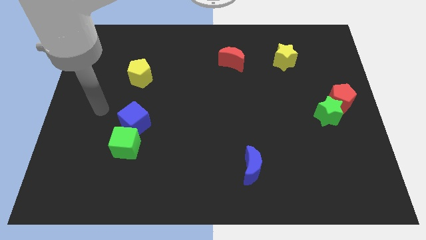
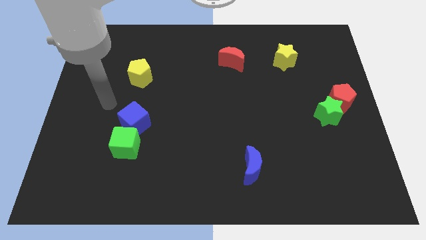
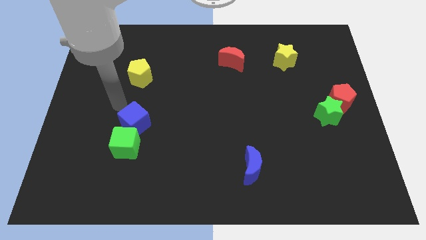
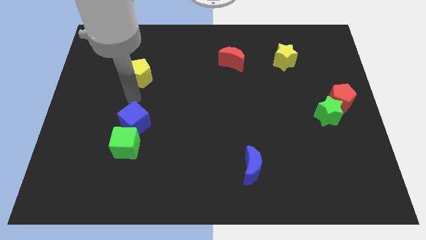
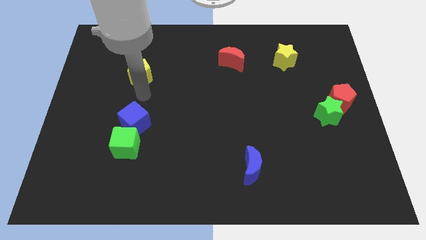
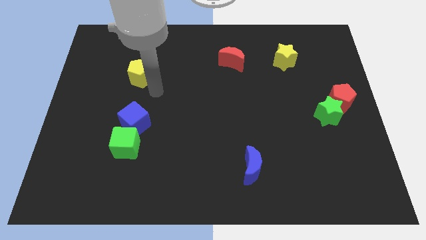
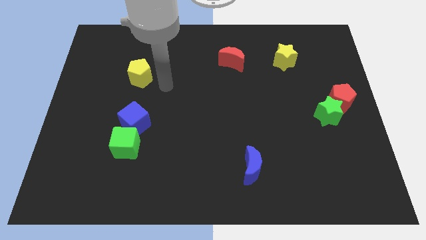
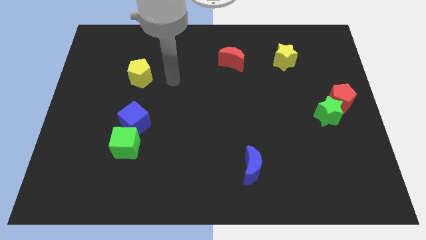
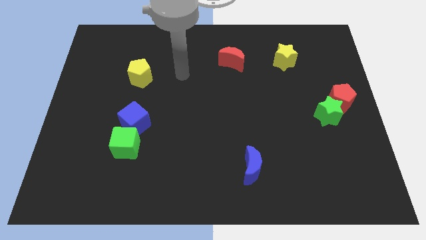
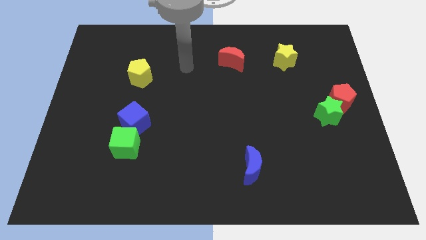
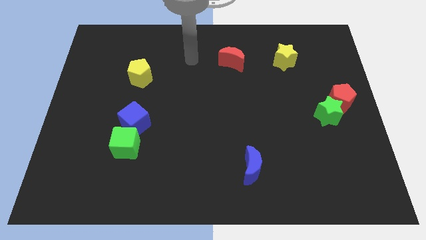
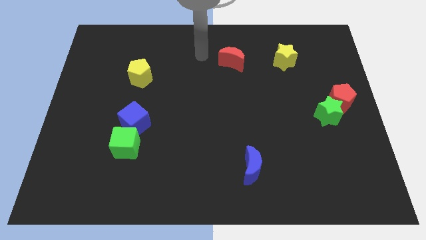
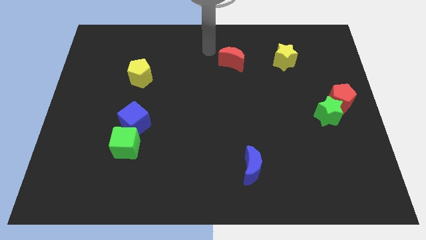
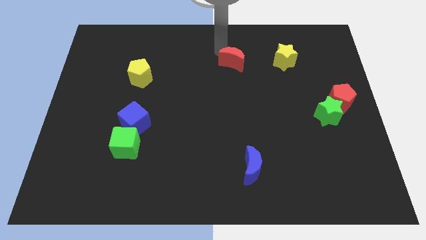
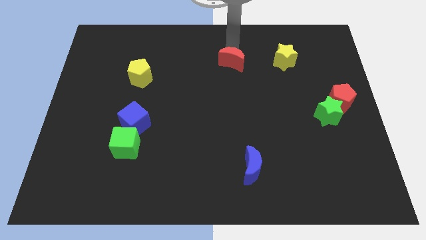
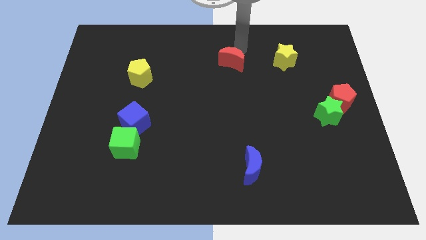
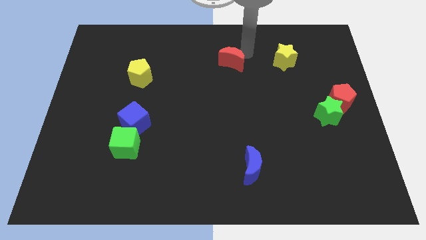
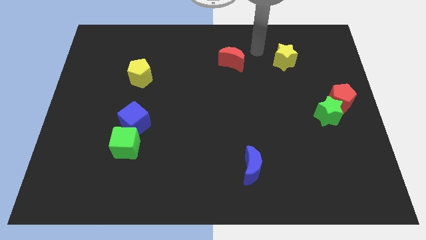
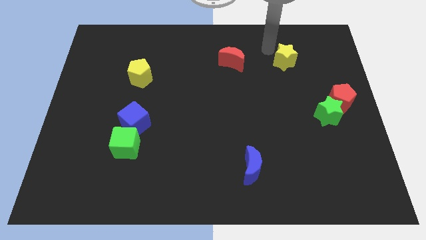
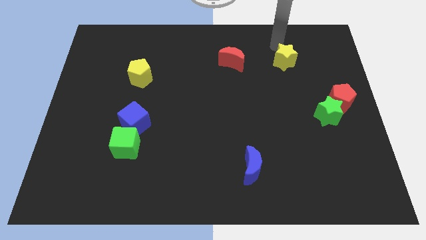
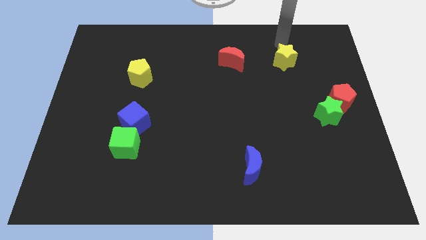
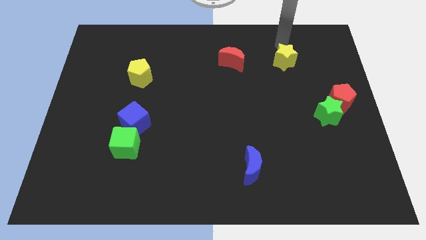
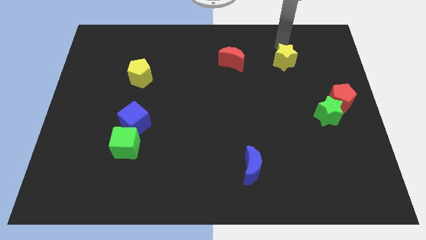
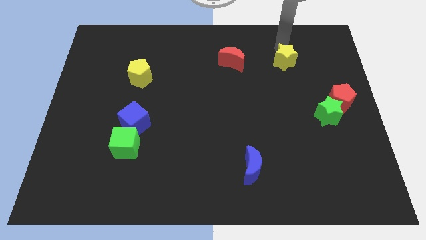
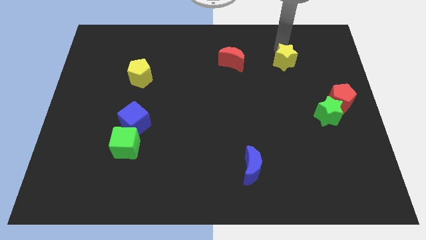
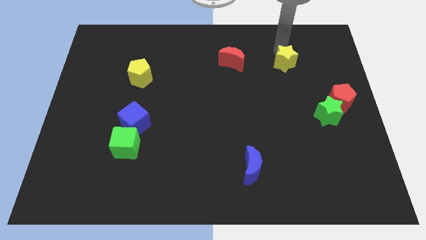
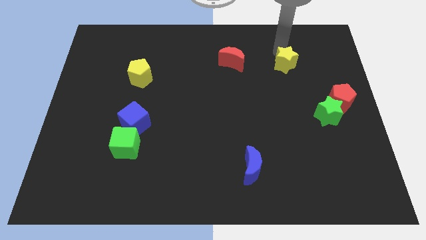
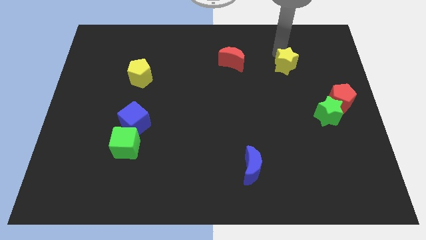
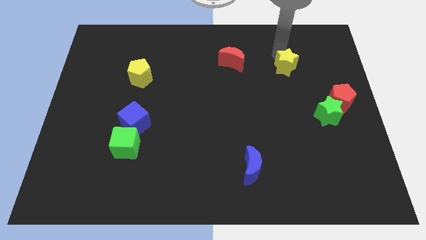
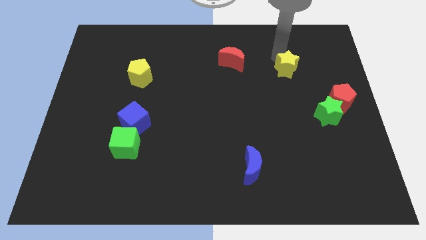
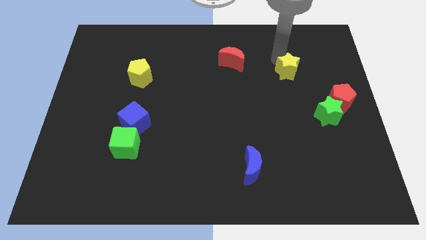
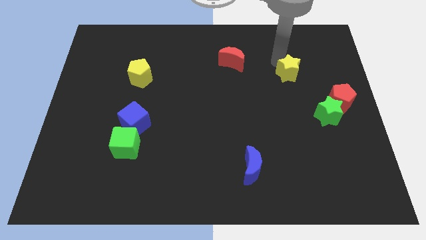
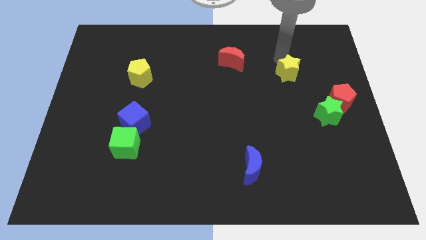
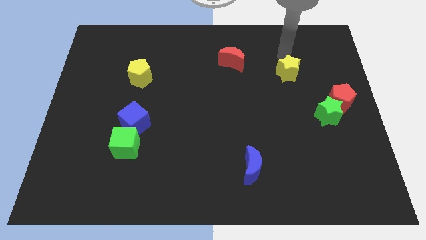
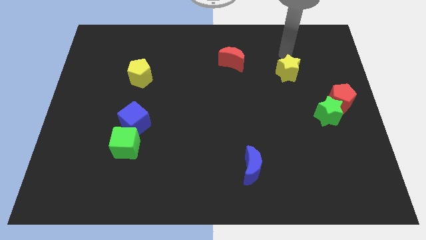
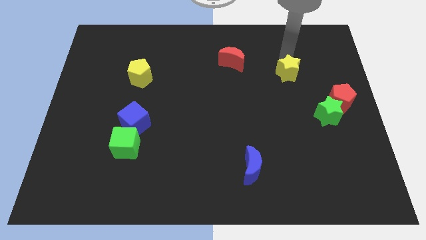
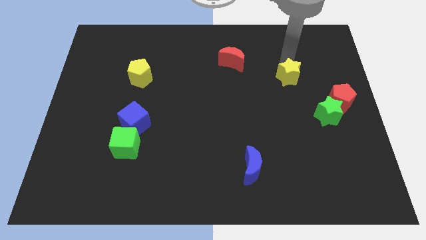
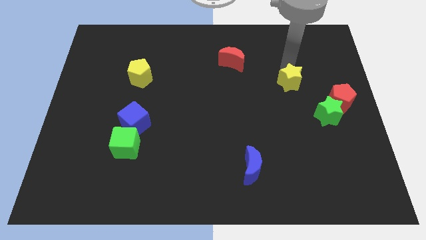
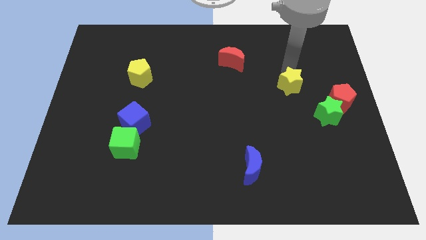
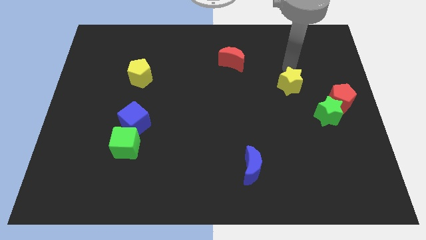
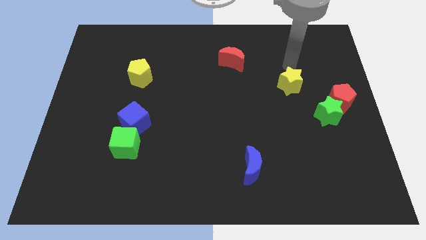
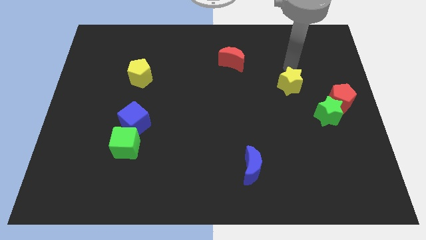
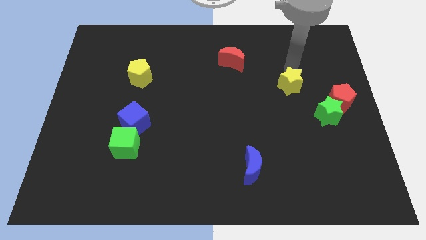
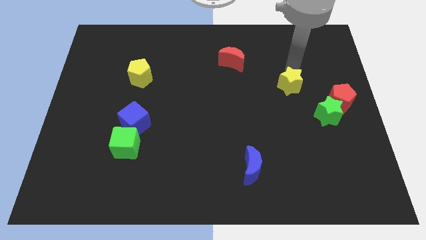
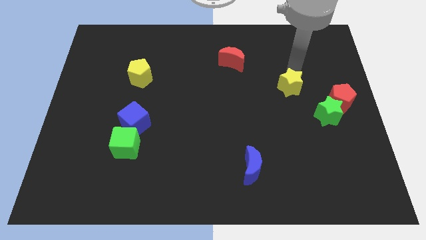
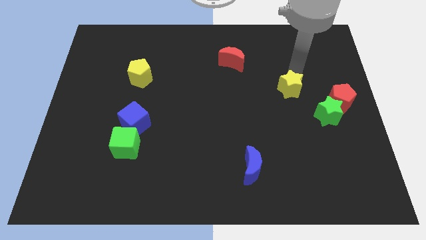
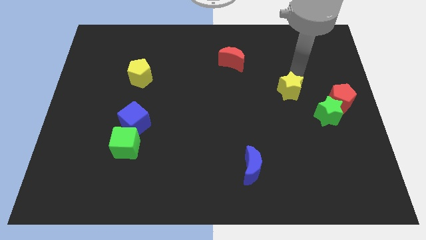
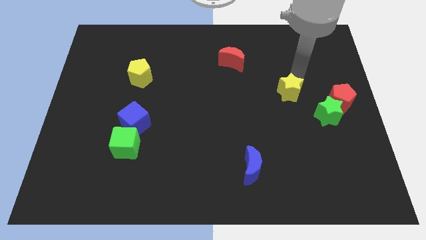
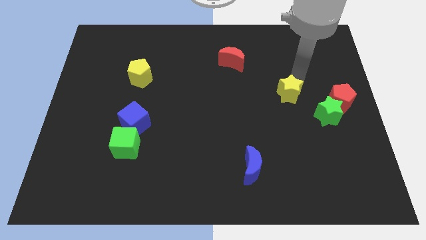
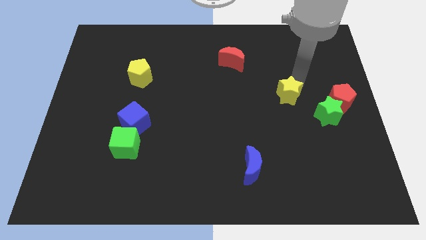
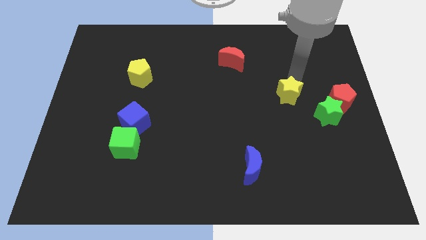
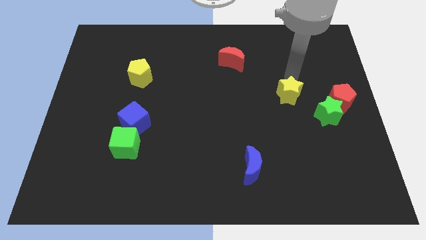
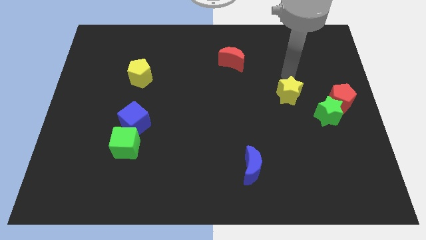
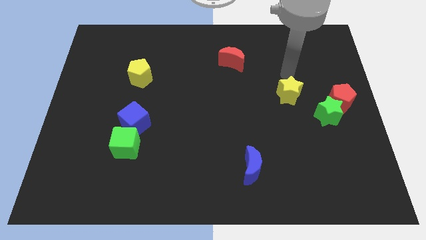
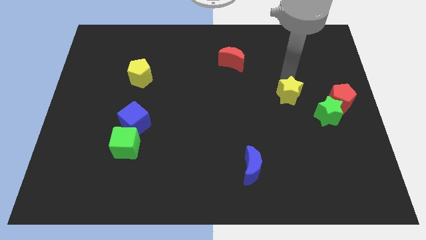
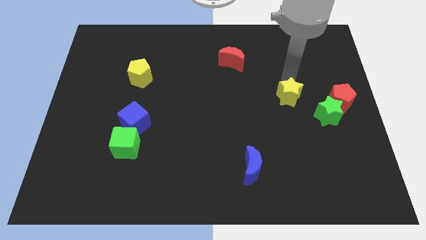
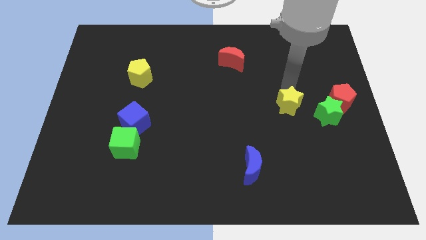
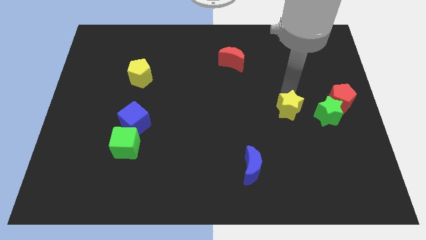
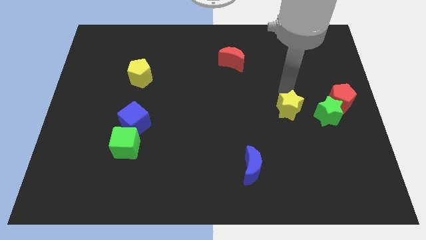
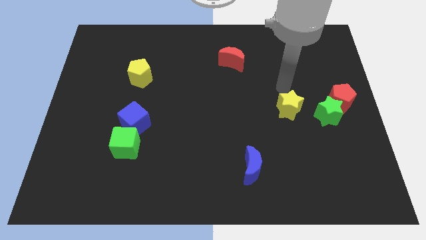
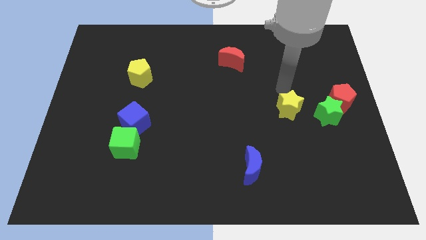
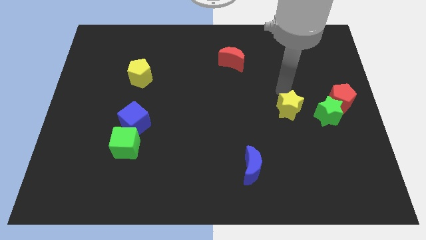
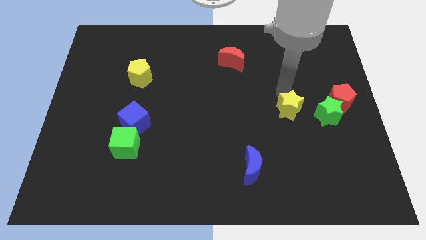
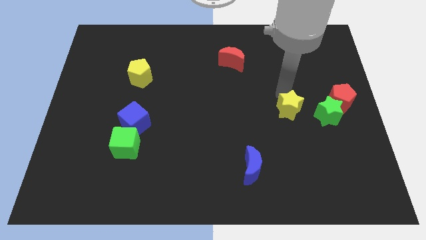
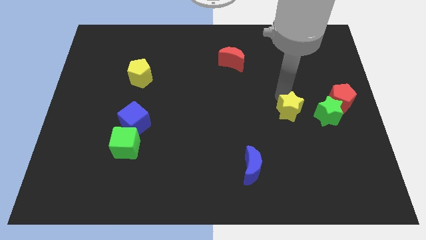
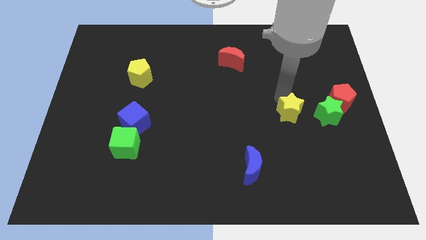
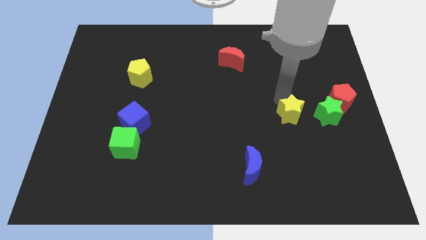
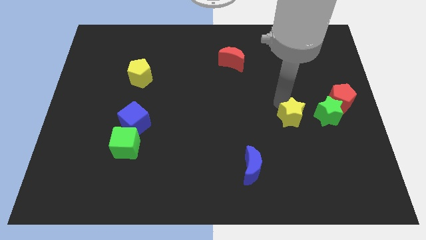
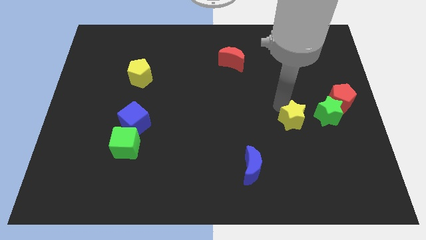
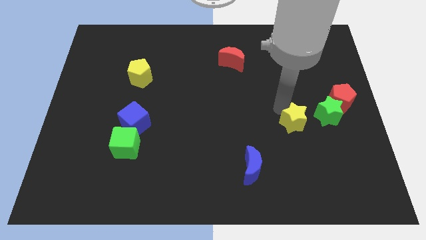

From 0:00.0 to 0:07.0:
slide the yellow star down

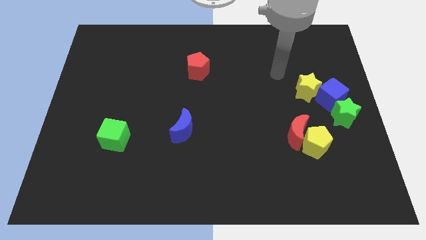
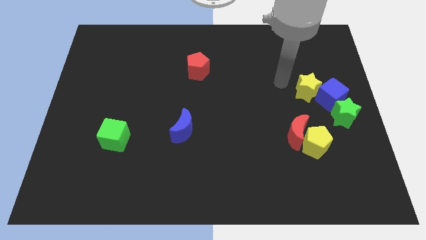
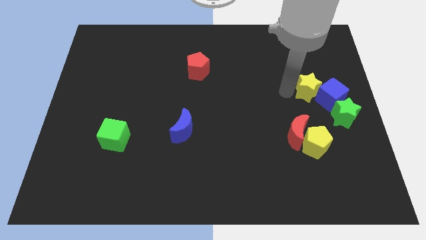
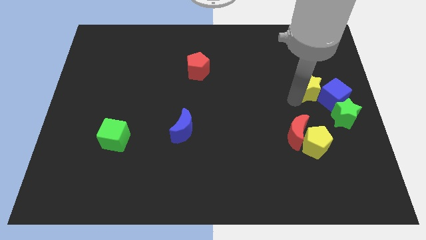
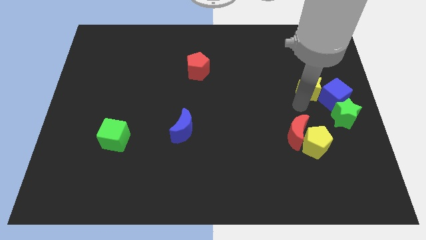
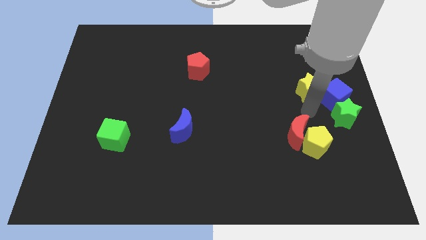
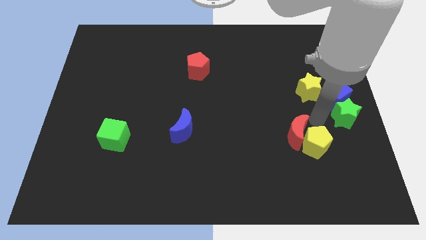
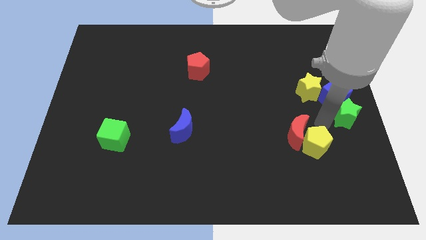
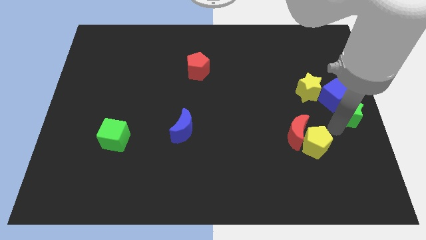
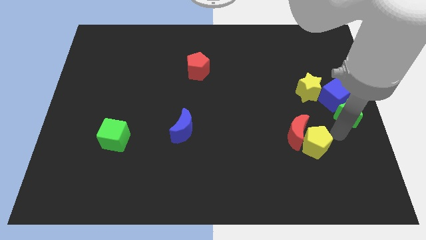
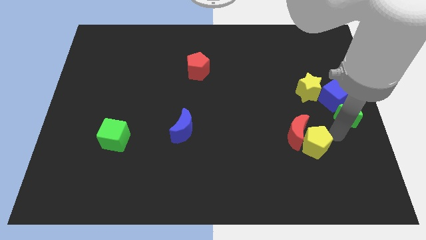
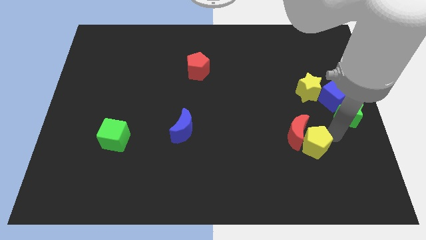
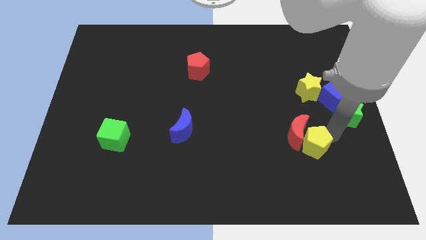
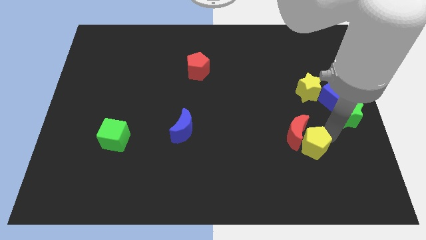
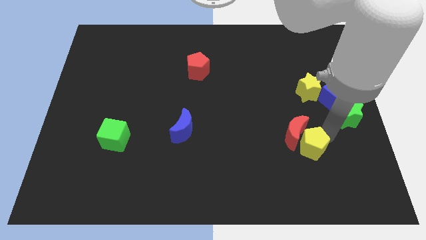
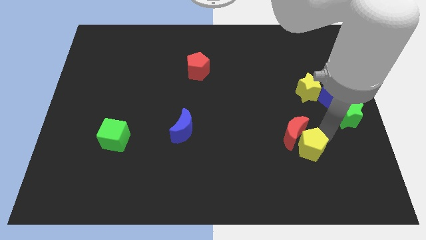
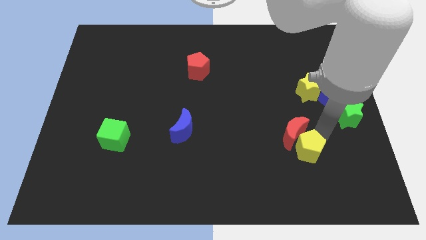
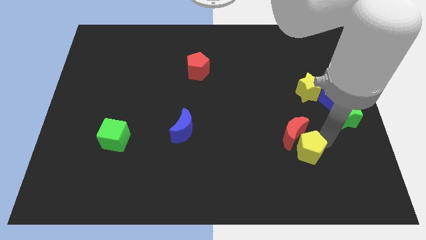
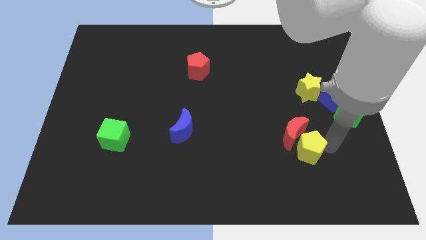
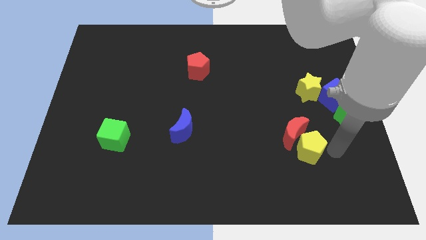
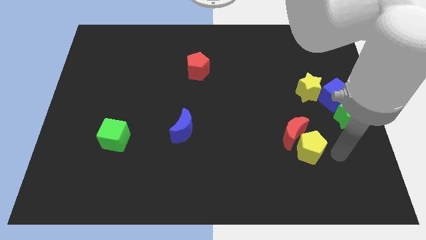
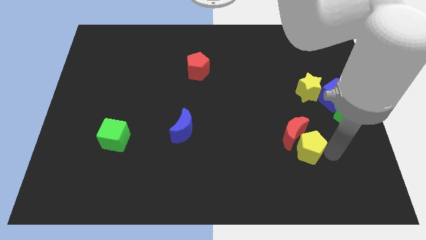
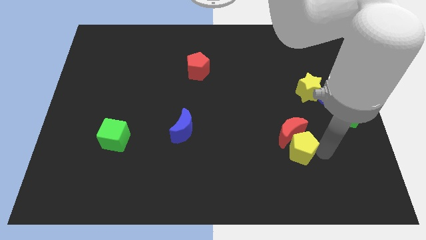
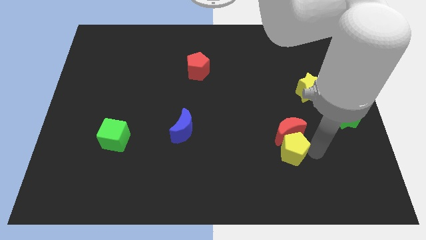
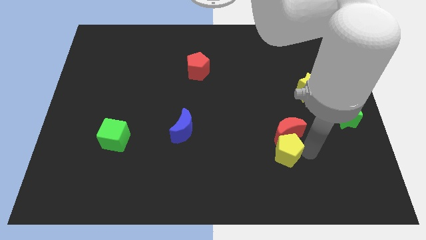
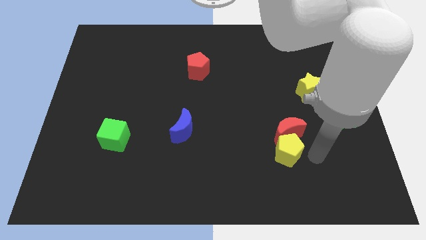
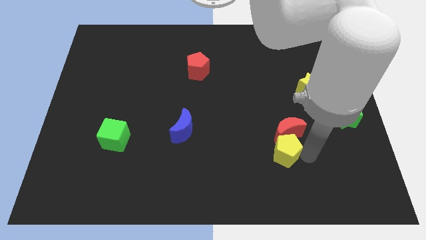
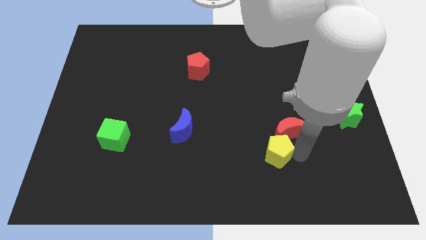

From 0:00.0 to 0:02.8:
push the yellow pentagon a little bit to the left
